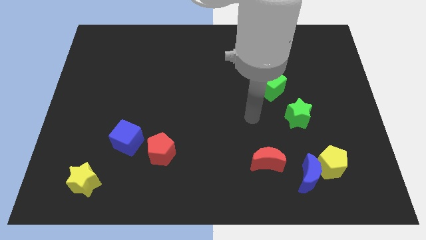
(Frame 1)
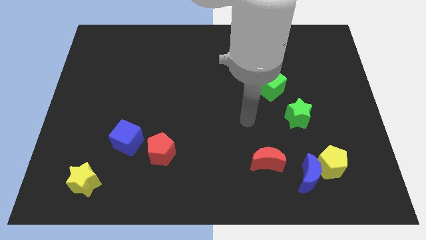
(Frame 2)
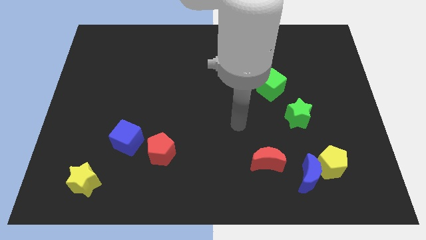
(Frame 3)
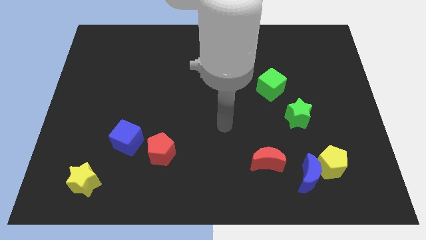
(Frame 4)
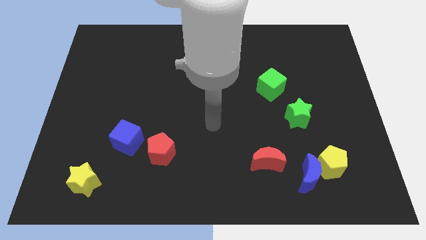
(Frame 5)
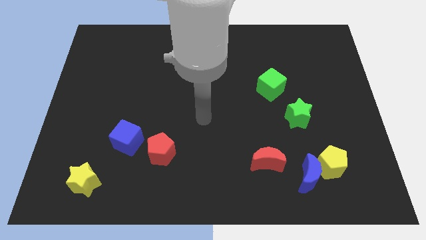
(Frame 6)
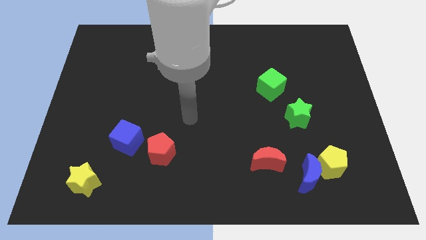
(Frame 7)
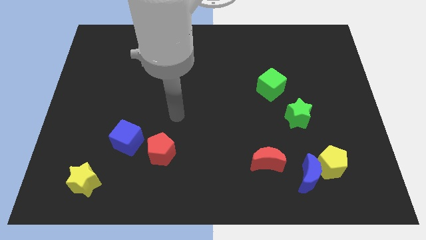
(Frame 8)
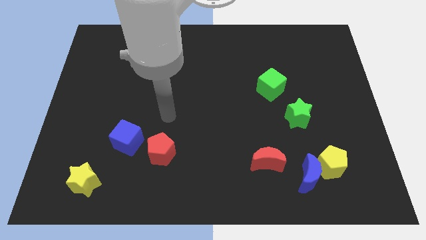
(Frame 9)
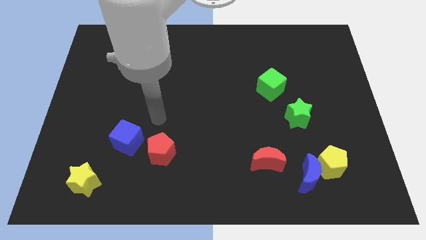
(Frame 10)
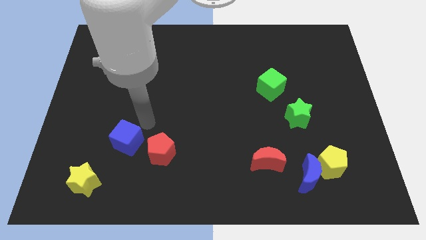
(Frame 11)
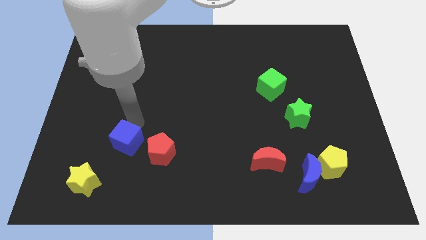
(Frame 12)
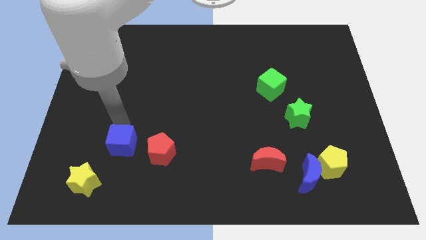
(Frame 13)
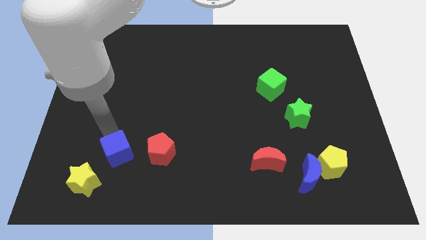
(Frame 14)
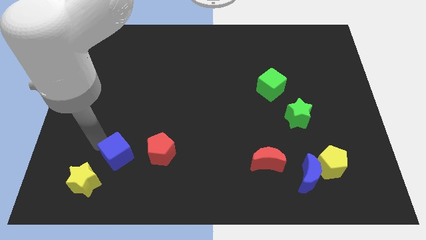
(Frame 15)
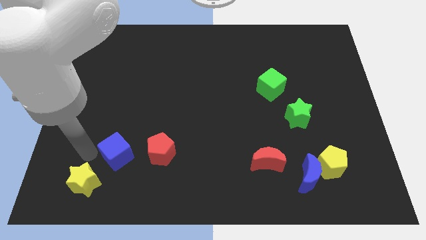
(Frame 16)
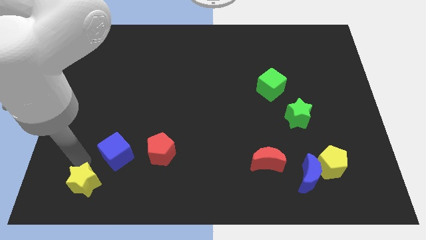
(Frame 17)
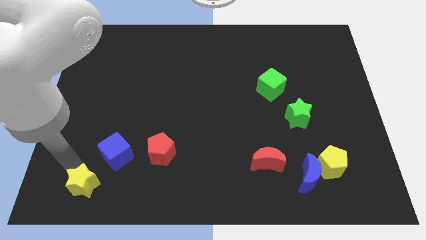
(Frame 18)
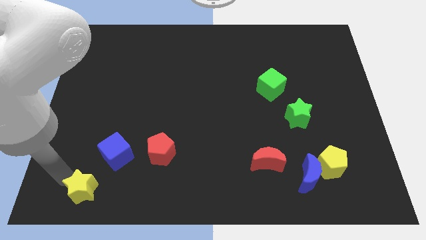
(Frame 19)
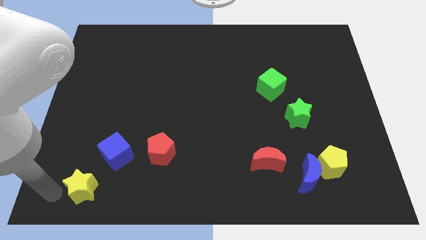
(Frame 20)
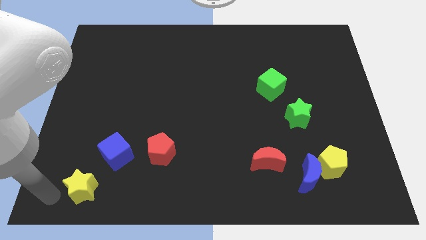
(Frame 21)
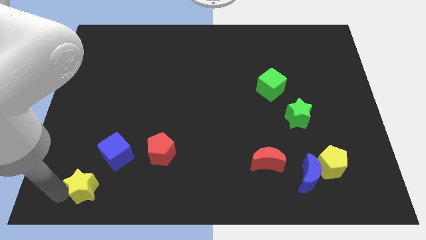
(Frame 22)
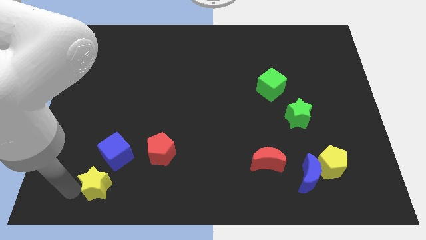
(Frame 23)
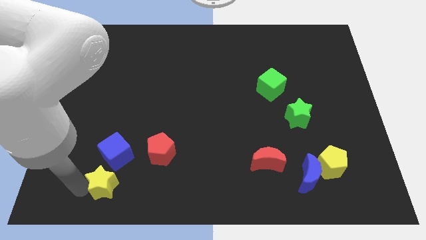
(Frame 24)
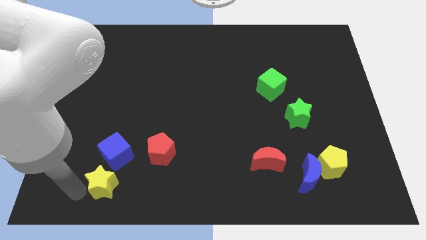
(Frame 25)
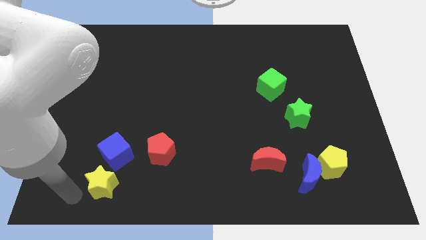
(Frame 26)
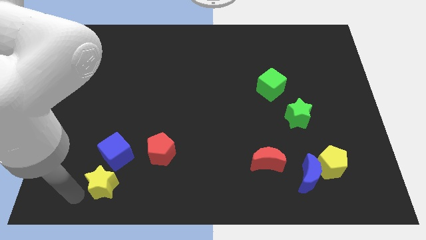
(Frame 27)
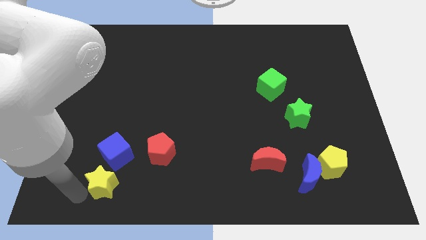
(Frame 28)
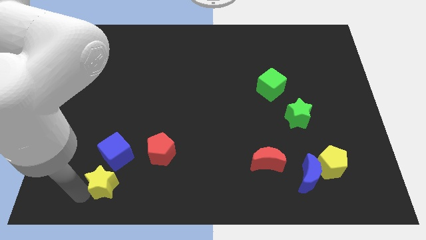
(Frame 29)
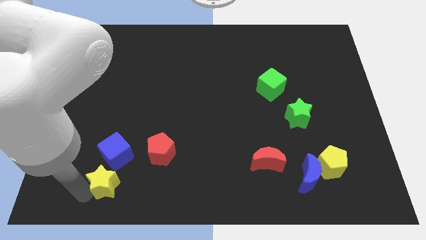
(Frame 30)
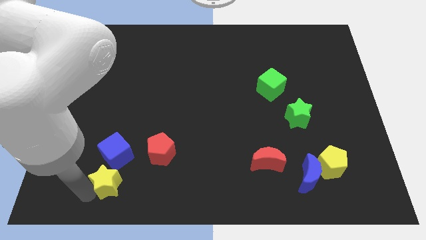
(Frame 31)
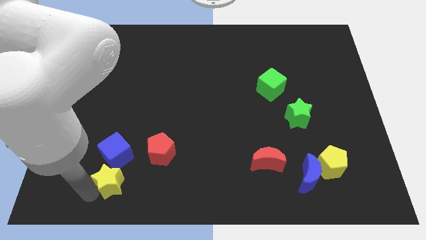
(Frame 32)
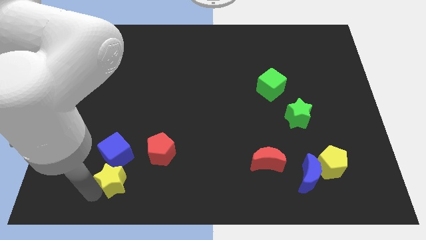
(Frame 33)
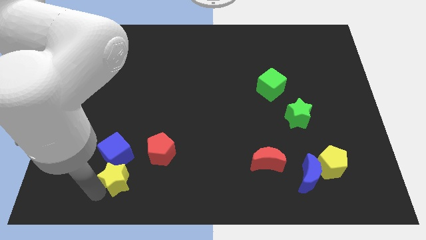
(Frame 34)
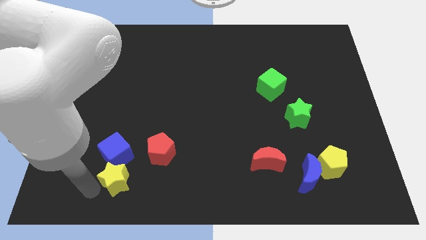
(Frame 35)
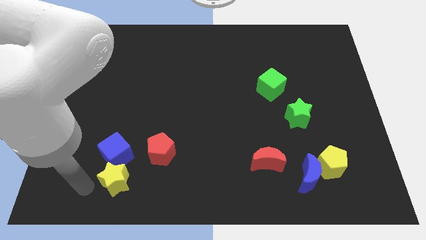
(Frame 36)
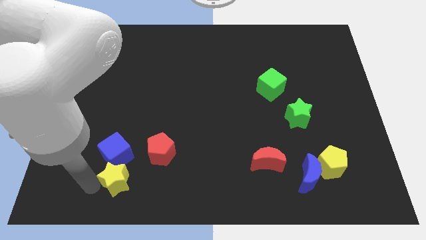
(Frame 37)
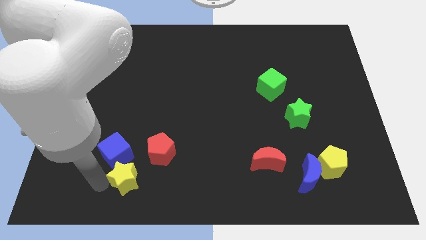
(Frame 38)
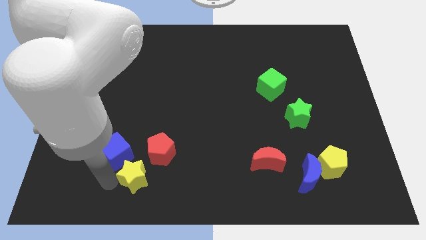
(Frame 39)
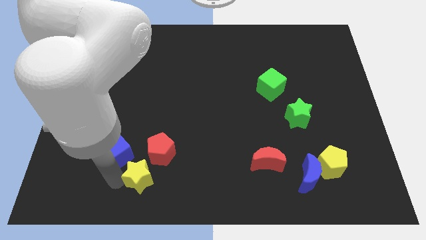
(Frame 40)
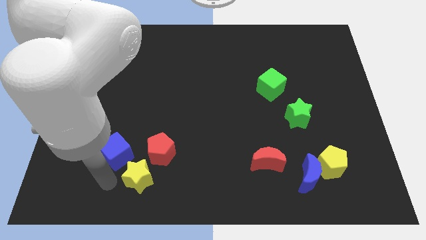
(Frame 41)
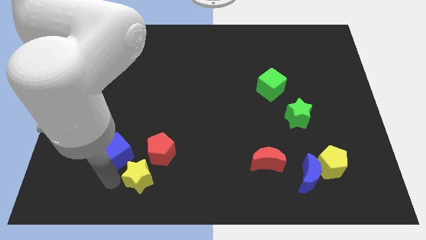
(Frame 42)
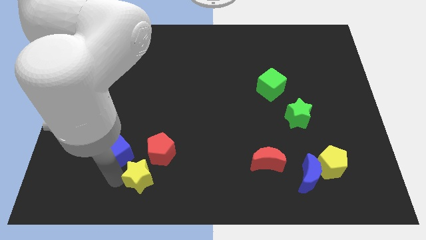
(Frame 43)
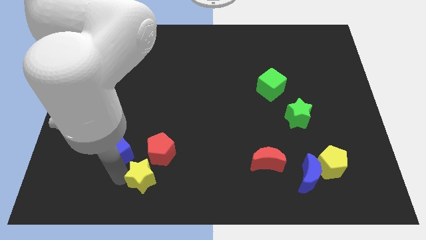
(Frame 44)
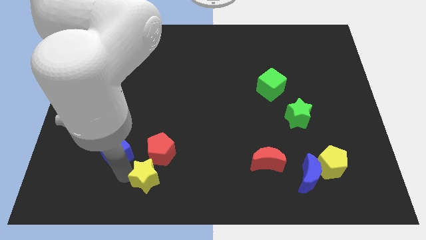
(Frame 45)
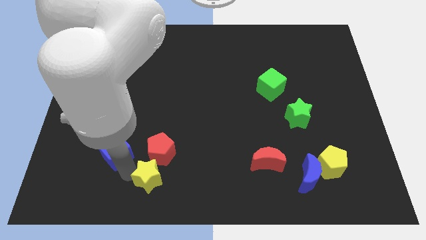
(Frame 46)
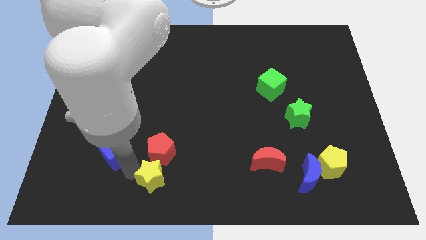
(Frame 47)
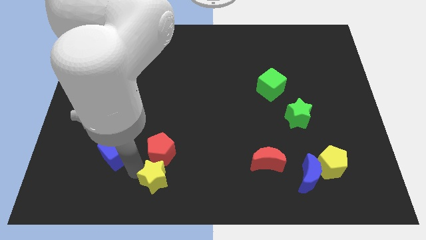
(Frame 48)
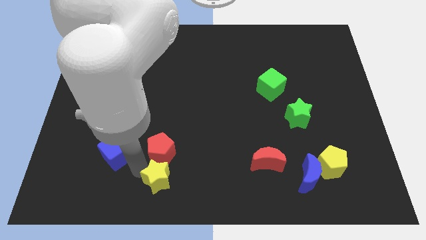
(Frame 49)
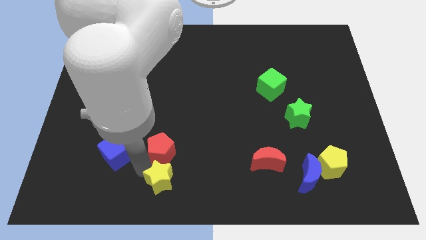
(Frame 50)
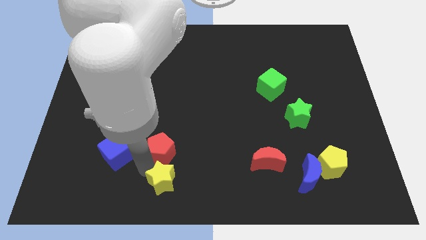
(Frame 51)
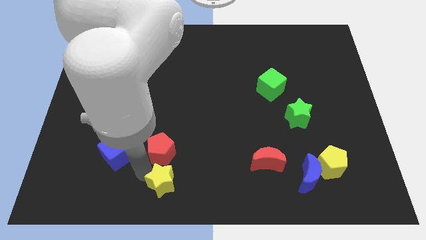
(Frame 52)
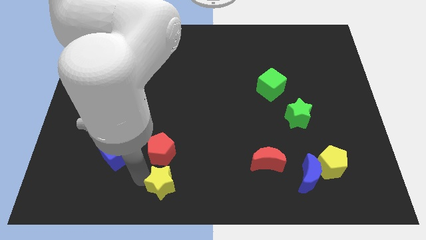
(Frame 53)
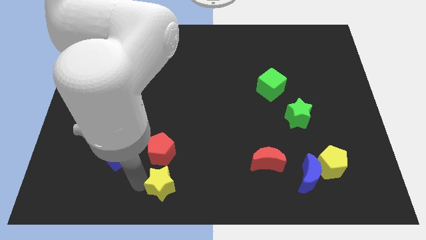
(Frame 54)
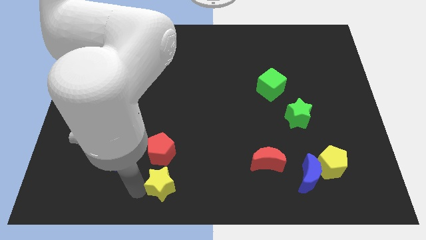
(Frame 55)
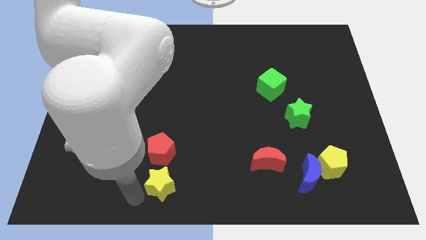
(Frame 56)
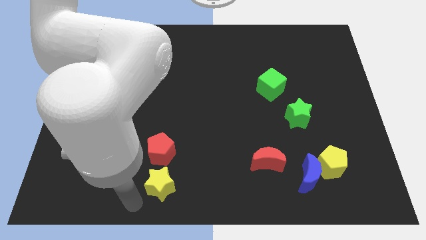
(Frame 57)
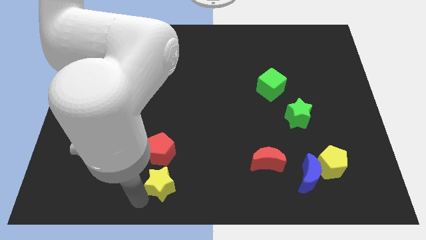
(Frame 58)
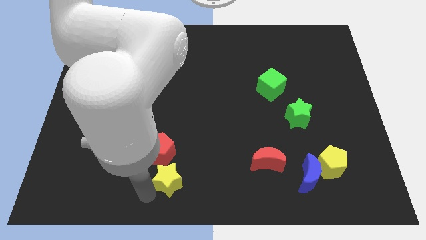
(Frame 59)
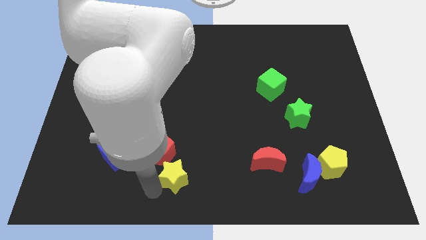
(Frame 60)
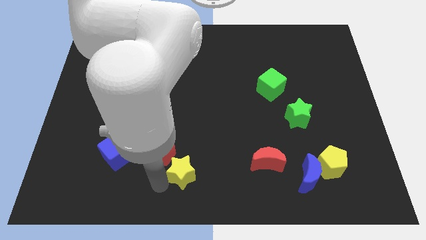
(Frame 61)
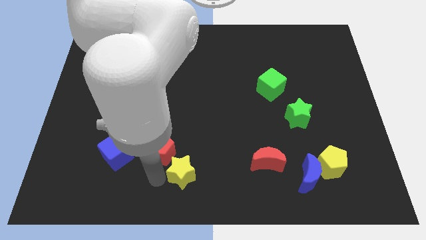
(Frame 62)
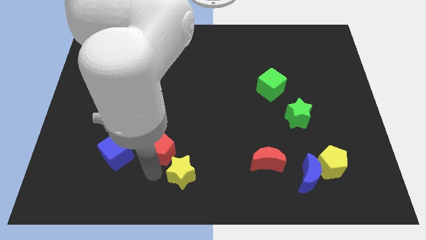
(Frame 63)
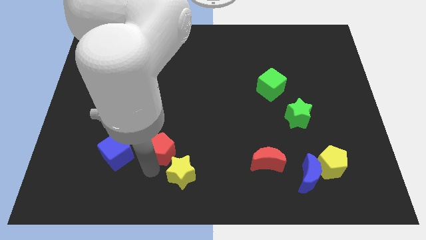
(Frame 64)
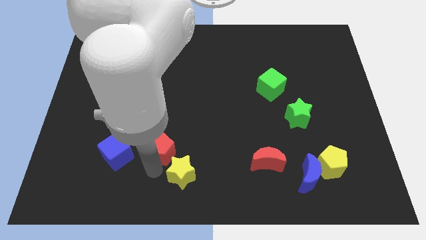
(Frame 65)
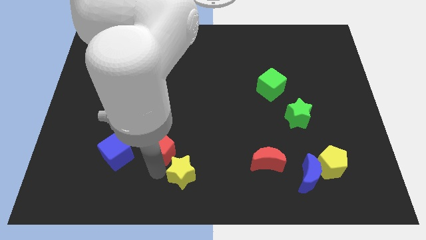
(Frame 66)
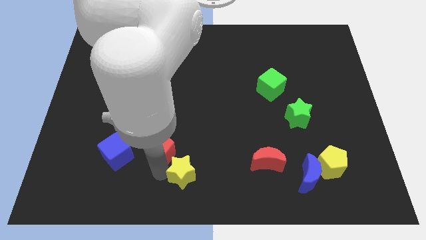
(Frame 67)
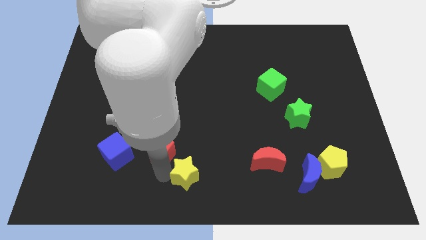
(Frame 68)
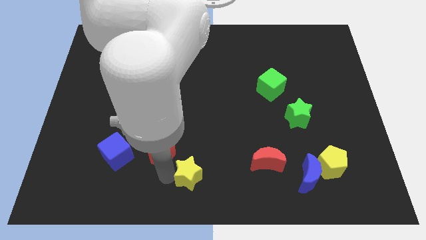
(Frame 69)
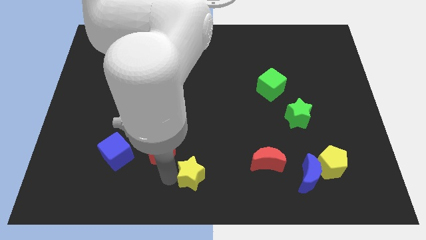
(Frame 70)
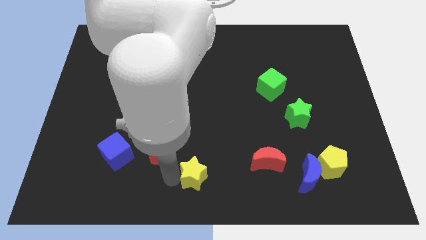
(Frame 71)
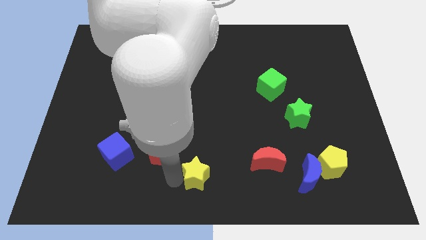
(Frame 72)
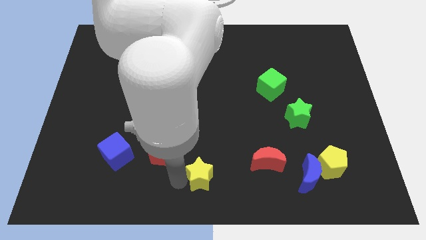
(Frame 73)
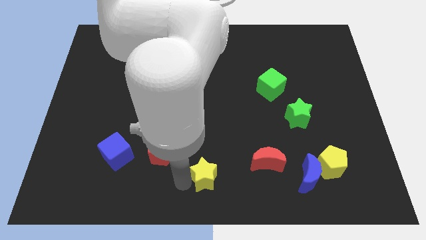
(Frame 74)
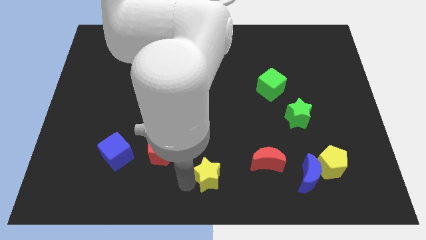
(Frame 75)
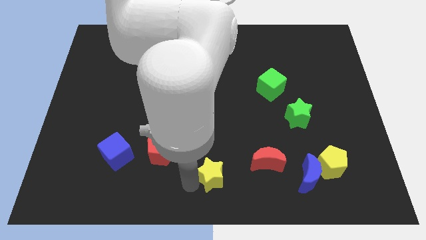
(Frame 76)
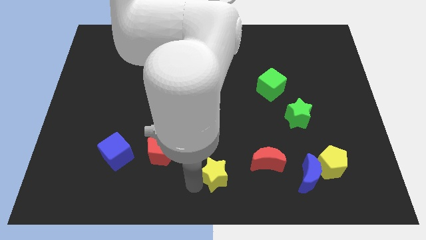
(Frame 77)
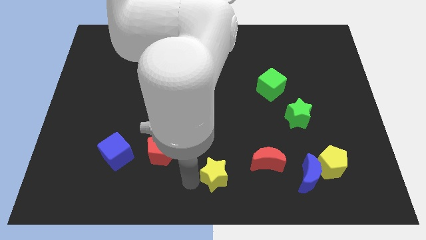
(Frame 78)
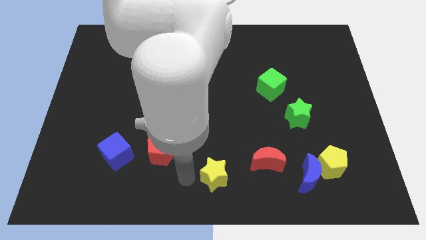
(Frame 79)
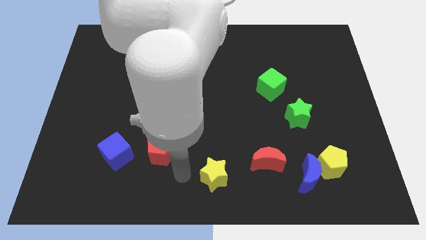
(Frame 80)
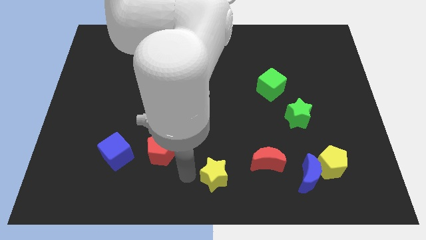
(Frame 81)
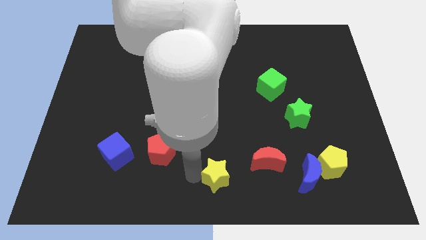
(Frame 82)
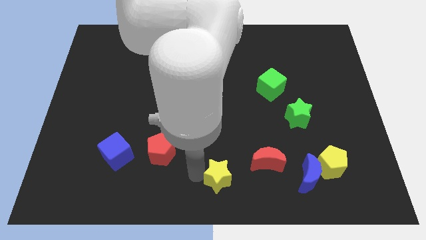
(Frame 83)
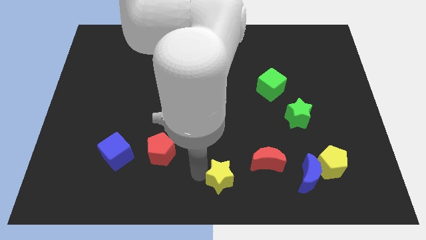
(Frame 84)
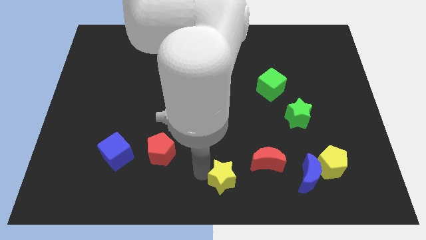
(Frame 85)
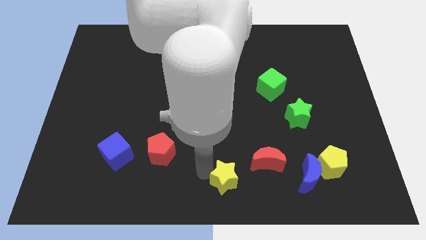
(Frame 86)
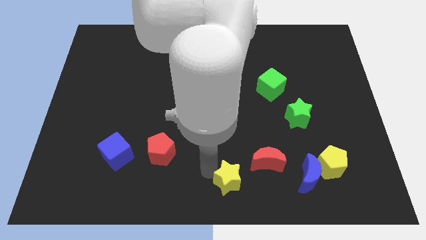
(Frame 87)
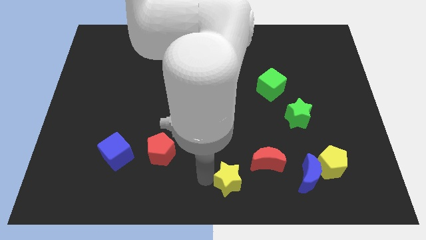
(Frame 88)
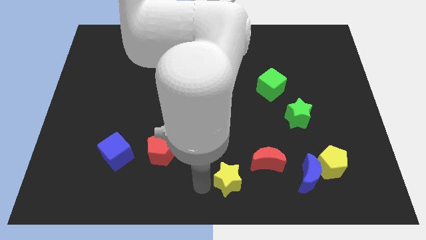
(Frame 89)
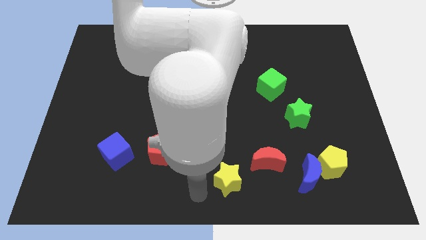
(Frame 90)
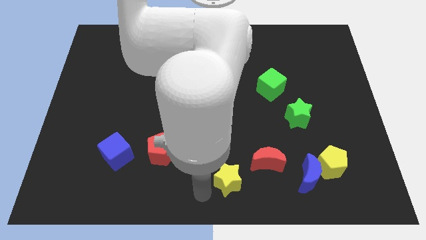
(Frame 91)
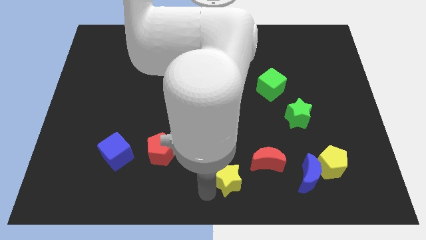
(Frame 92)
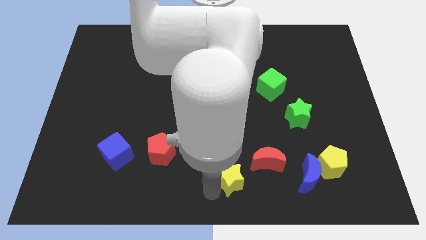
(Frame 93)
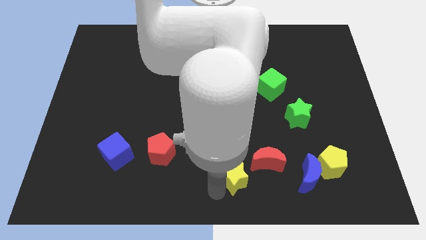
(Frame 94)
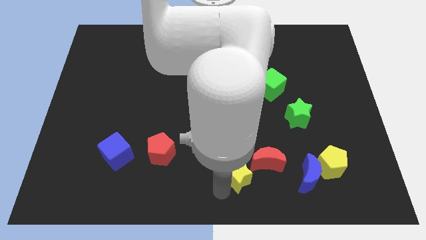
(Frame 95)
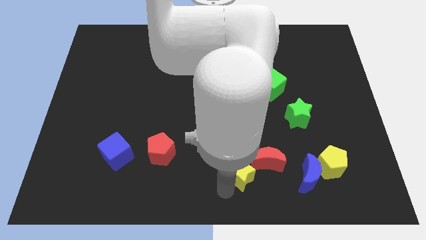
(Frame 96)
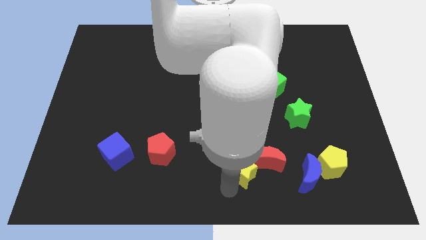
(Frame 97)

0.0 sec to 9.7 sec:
push the yellow star close to the red moon
